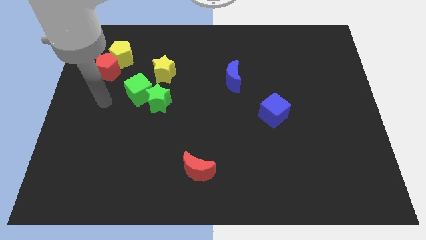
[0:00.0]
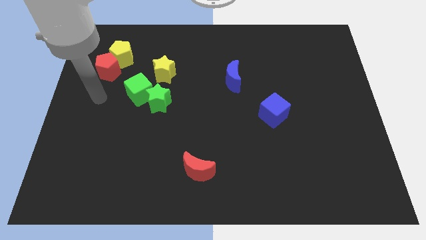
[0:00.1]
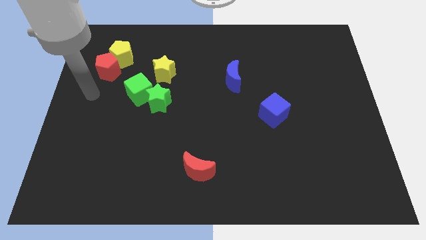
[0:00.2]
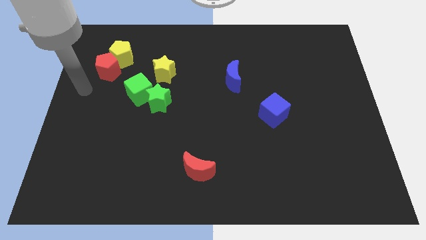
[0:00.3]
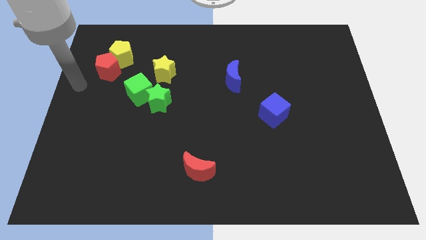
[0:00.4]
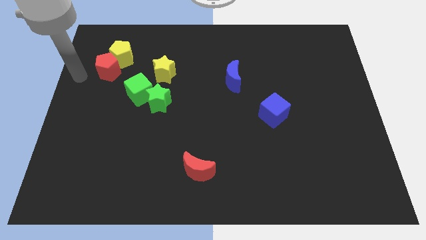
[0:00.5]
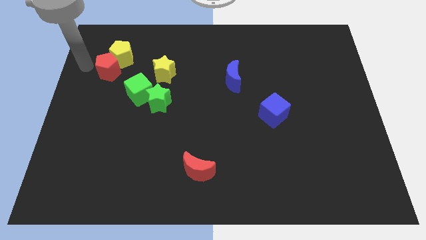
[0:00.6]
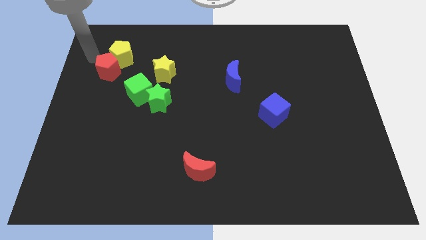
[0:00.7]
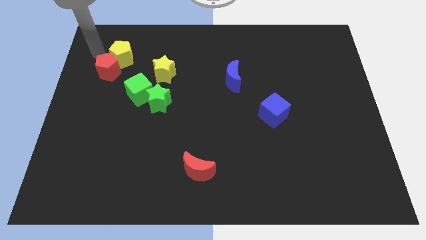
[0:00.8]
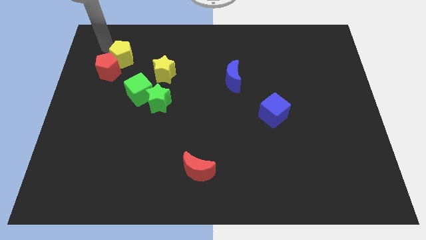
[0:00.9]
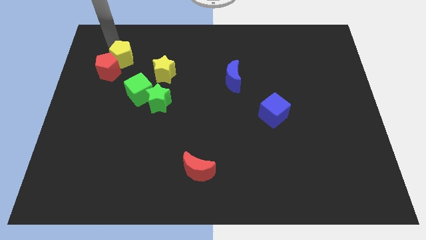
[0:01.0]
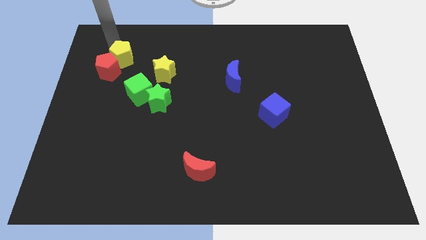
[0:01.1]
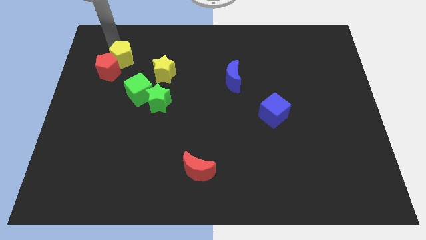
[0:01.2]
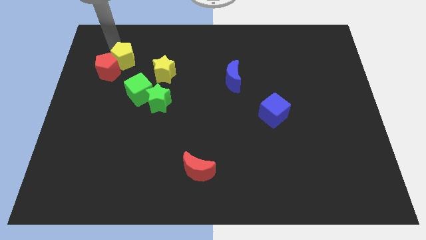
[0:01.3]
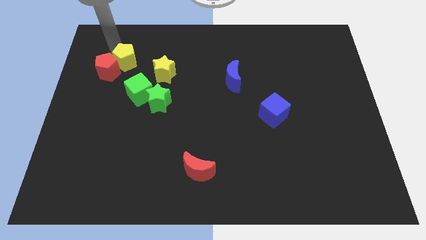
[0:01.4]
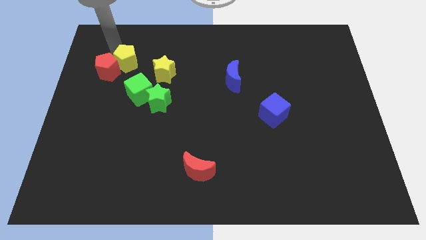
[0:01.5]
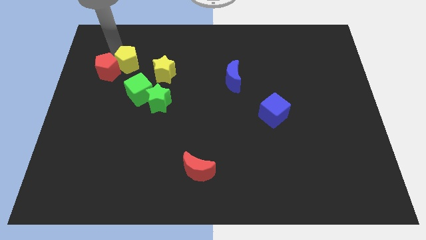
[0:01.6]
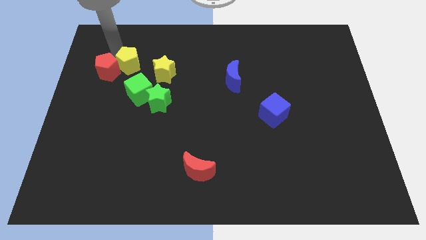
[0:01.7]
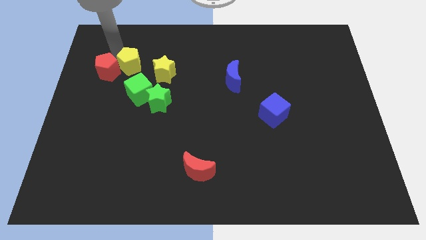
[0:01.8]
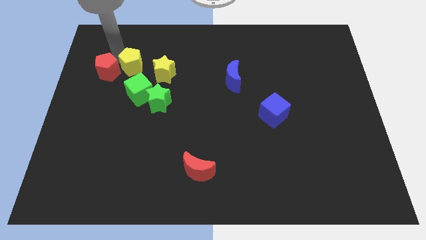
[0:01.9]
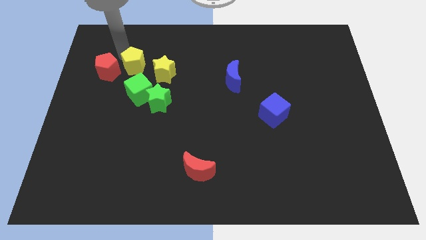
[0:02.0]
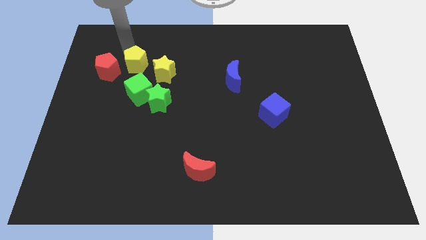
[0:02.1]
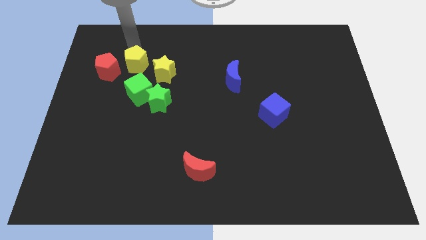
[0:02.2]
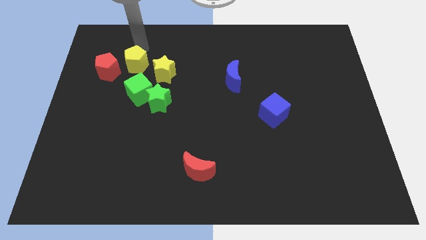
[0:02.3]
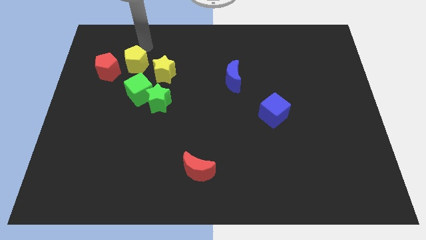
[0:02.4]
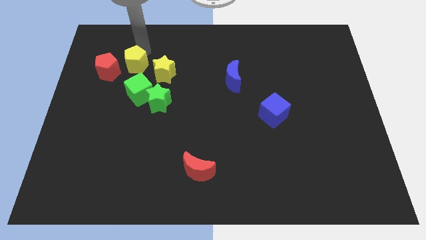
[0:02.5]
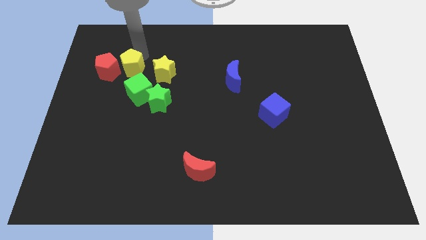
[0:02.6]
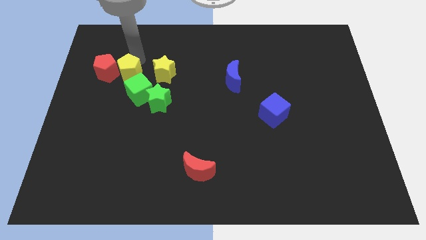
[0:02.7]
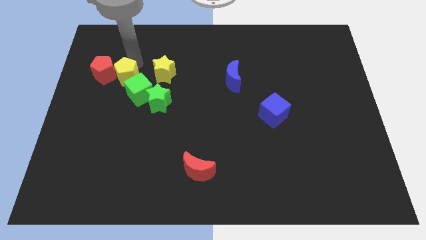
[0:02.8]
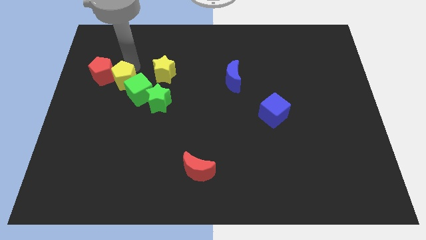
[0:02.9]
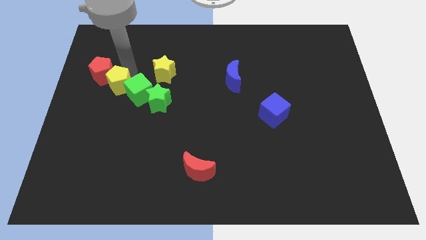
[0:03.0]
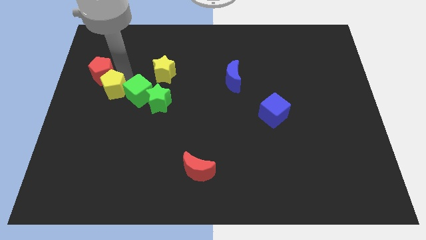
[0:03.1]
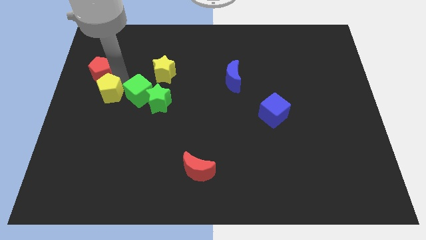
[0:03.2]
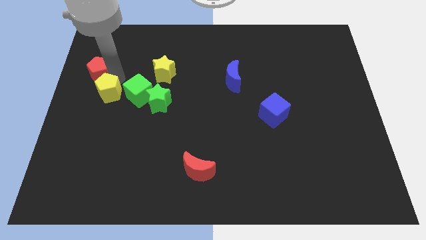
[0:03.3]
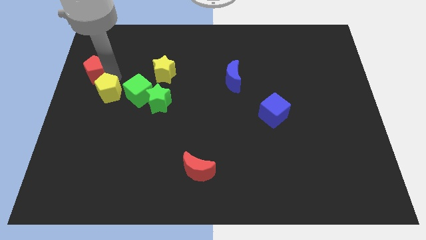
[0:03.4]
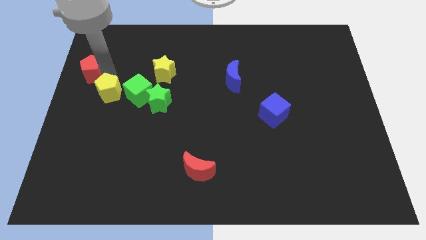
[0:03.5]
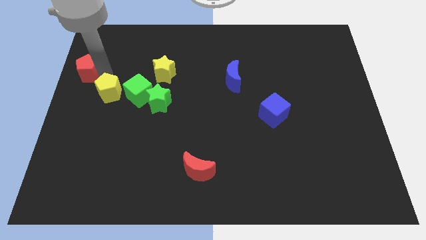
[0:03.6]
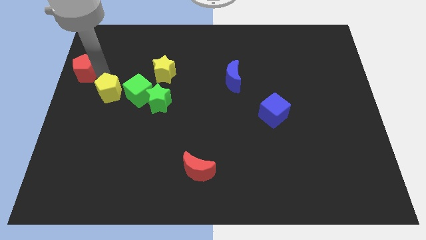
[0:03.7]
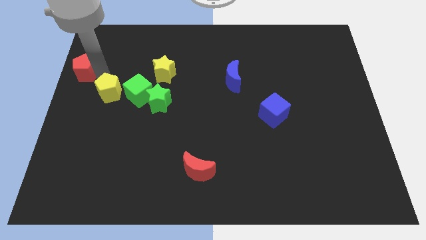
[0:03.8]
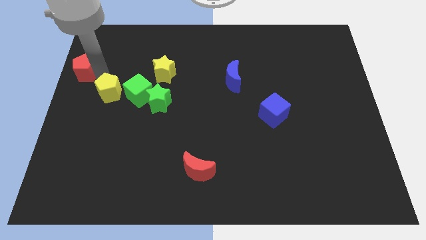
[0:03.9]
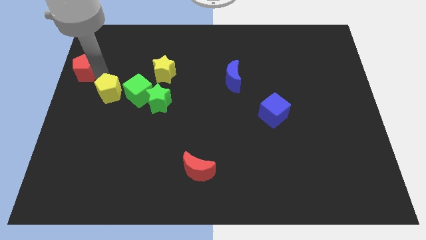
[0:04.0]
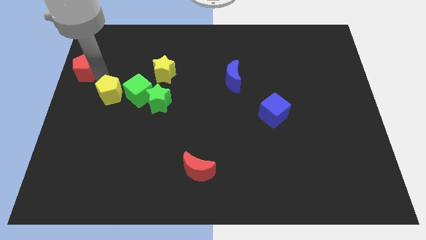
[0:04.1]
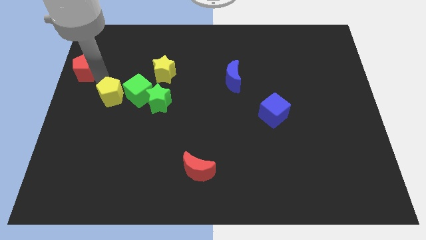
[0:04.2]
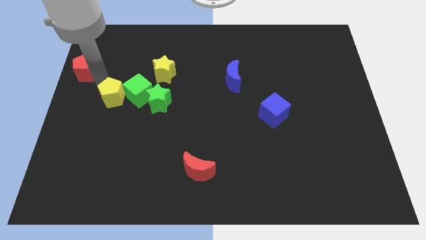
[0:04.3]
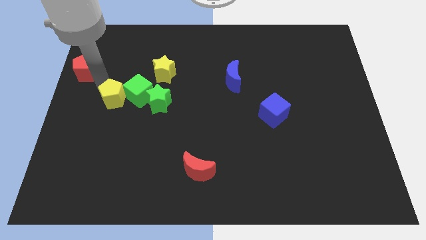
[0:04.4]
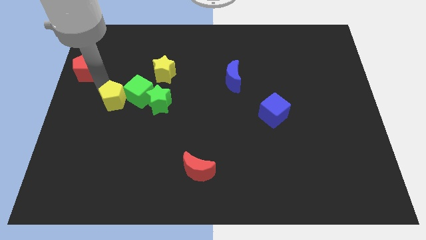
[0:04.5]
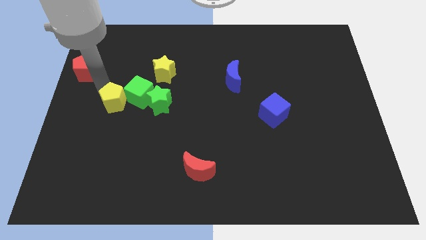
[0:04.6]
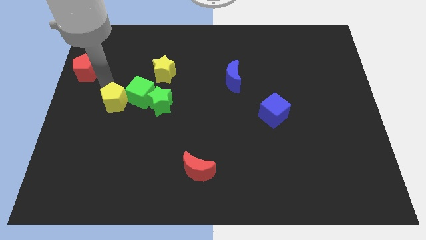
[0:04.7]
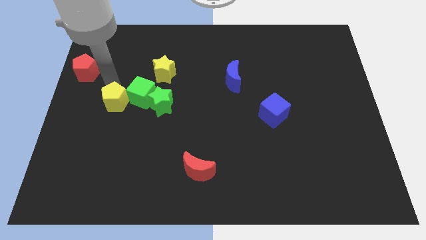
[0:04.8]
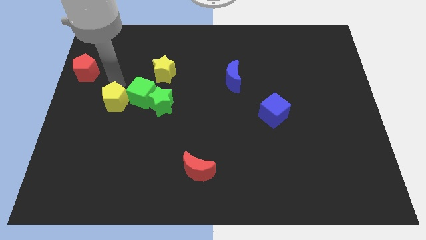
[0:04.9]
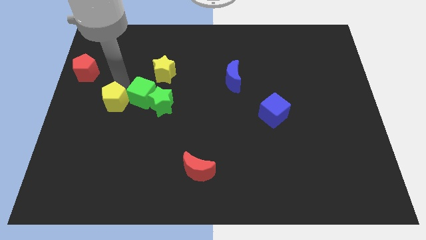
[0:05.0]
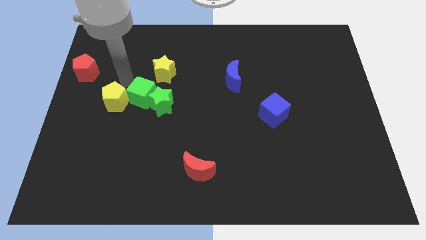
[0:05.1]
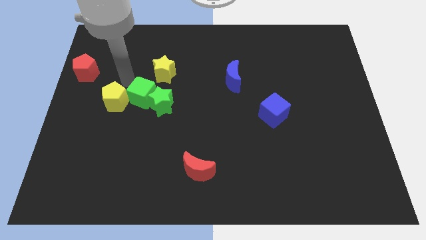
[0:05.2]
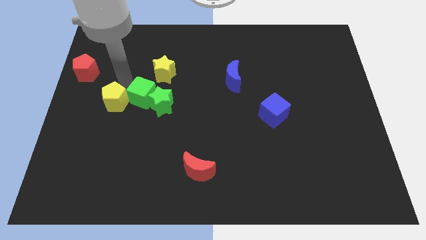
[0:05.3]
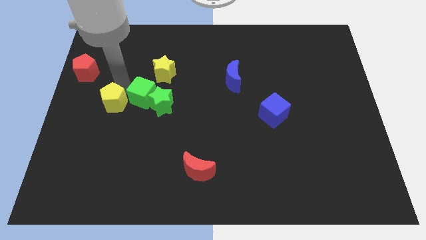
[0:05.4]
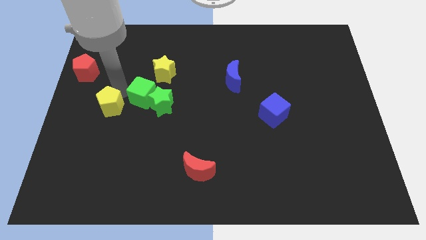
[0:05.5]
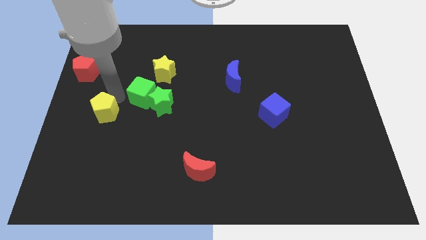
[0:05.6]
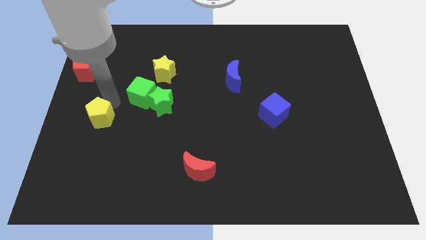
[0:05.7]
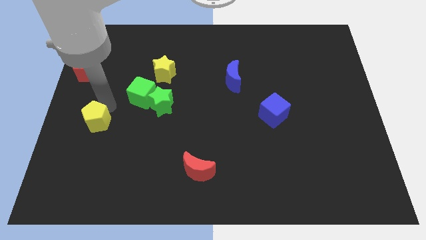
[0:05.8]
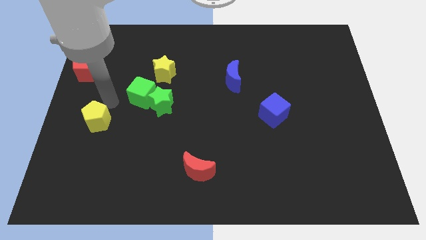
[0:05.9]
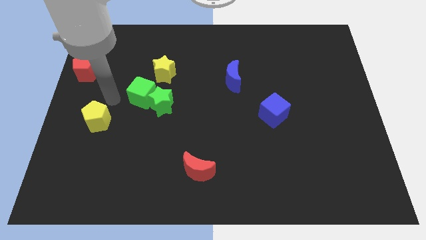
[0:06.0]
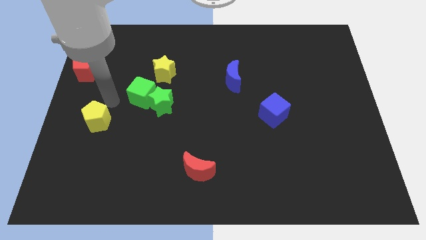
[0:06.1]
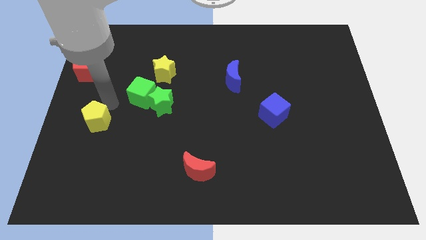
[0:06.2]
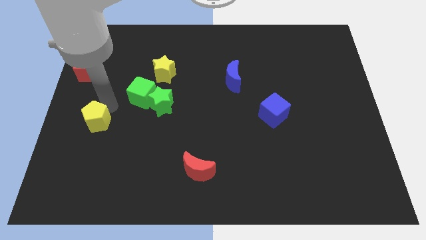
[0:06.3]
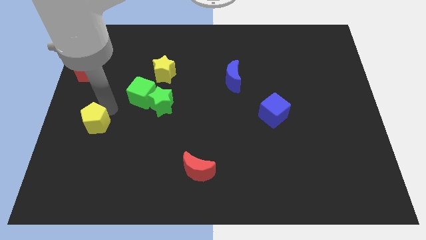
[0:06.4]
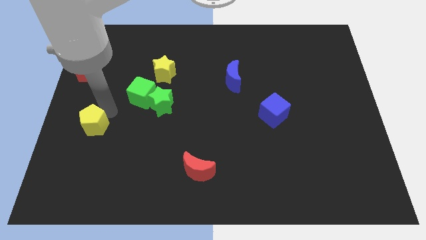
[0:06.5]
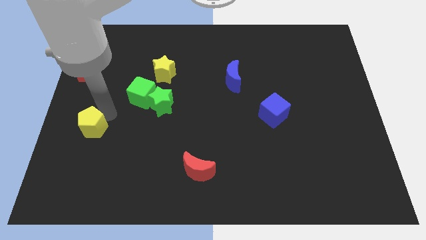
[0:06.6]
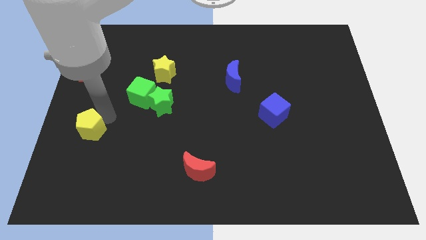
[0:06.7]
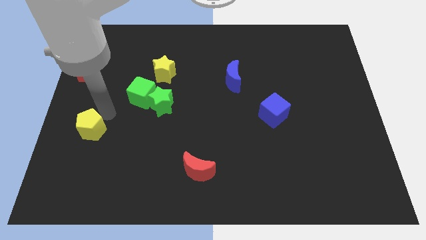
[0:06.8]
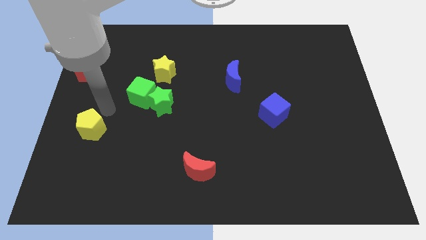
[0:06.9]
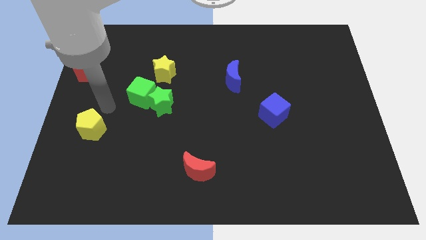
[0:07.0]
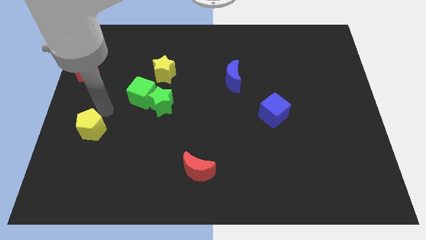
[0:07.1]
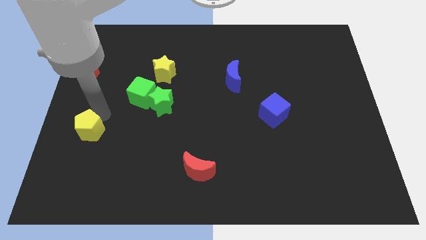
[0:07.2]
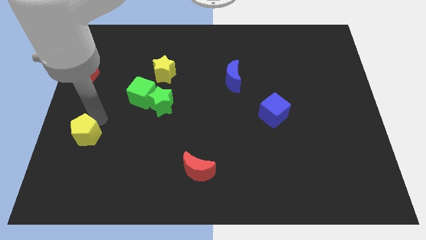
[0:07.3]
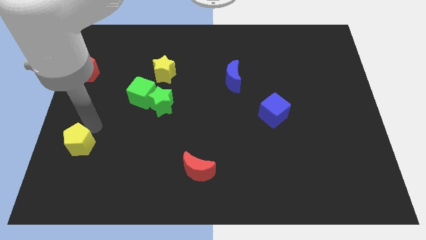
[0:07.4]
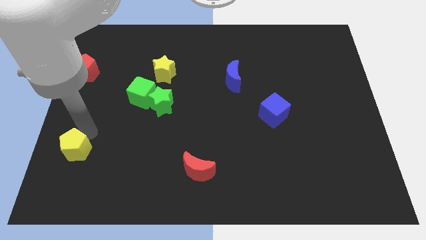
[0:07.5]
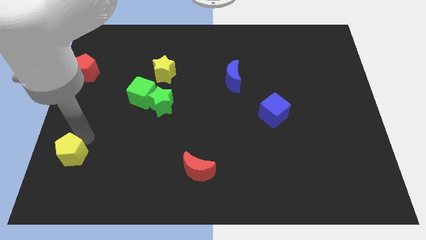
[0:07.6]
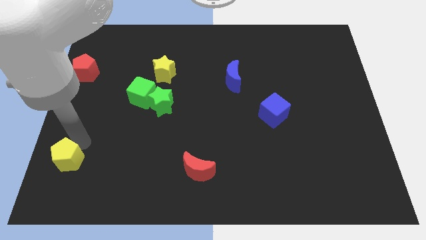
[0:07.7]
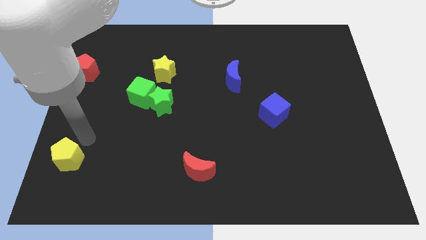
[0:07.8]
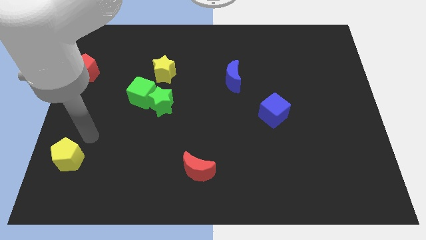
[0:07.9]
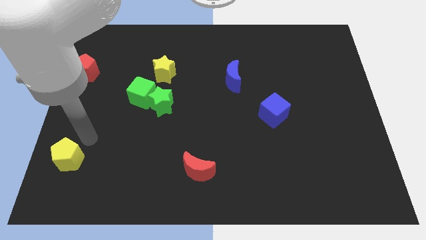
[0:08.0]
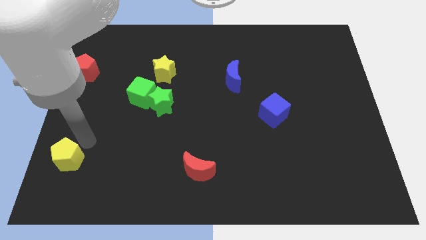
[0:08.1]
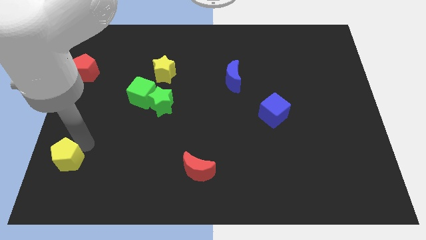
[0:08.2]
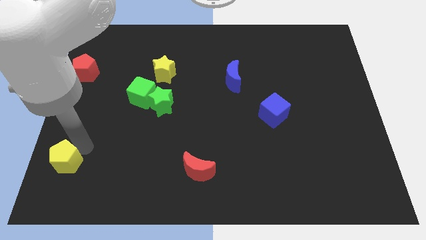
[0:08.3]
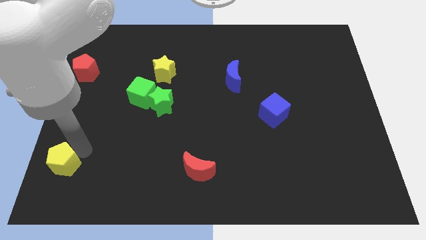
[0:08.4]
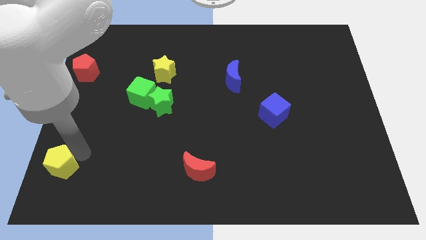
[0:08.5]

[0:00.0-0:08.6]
slide the yellow pentagon to the bottom left of the board
